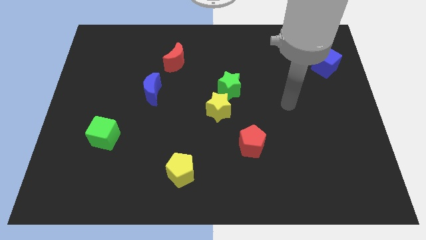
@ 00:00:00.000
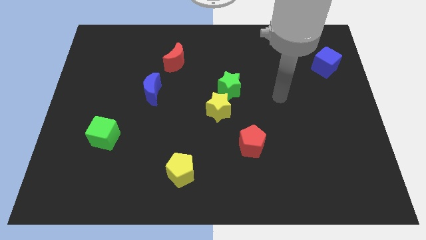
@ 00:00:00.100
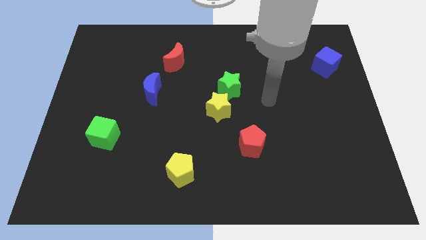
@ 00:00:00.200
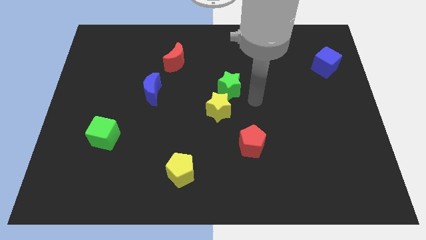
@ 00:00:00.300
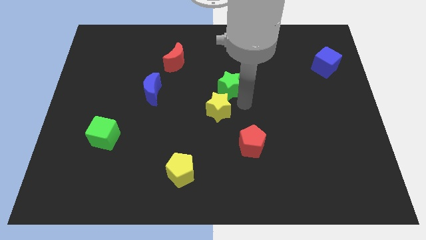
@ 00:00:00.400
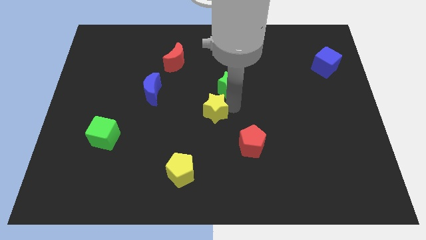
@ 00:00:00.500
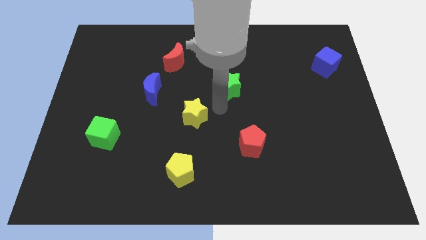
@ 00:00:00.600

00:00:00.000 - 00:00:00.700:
separate the green star from the yellow star

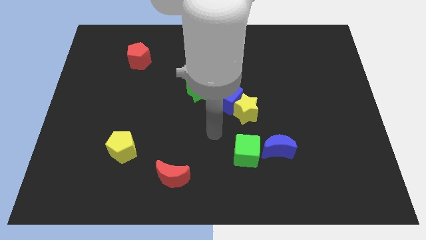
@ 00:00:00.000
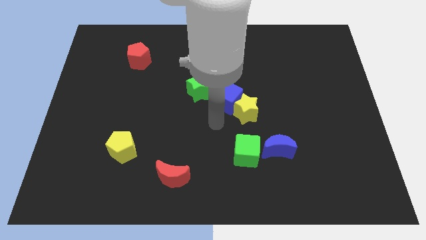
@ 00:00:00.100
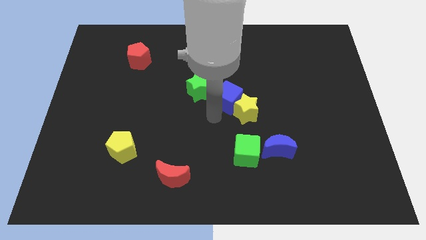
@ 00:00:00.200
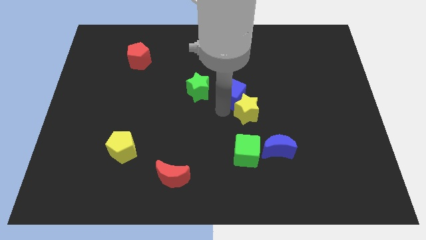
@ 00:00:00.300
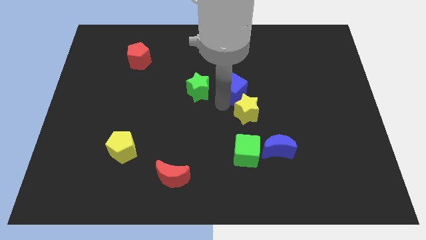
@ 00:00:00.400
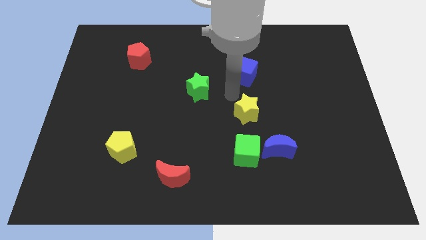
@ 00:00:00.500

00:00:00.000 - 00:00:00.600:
pull the yellow star apart from the blue cube

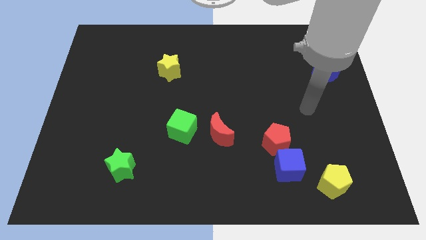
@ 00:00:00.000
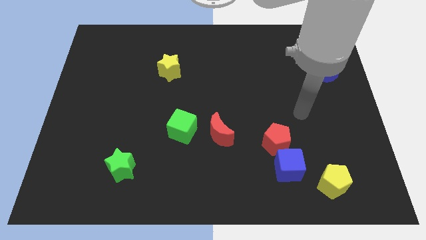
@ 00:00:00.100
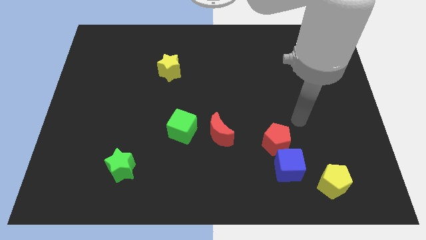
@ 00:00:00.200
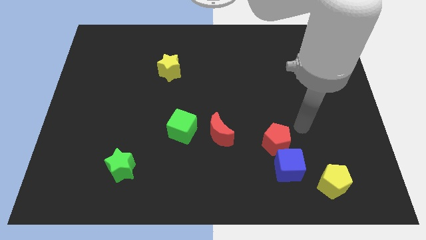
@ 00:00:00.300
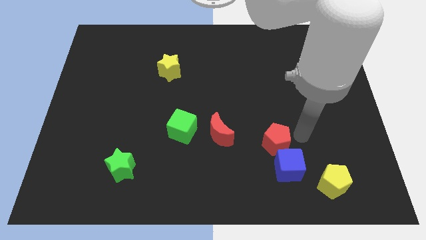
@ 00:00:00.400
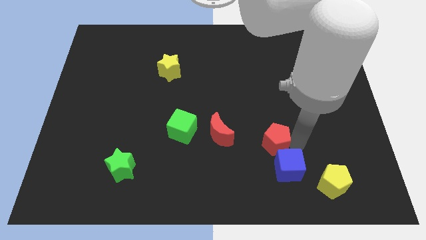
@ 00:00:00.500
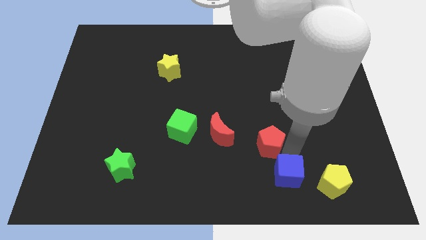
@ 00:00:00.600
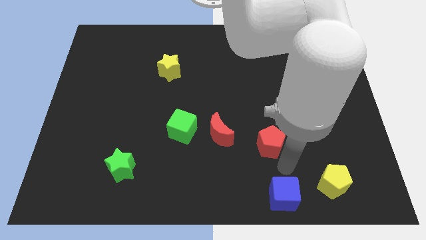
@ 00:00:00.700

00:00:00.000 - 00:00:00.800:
separate the red pentagon from the blue cube

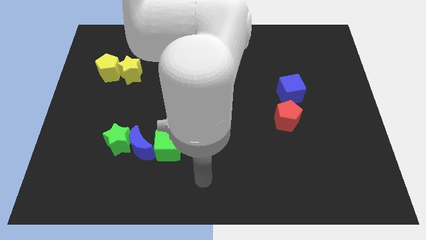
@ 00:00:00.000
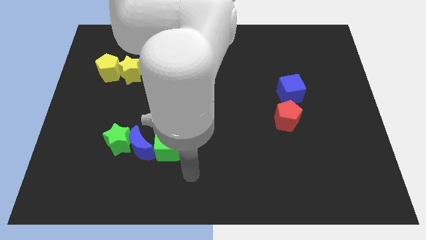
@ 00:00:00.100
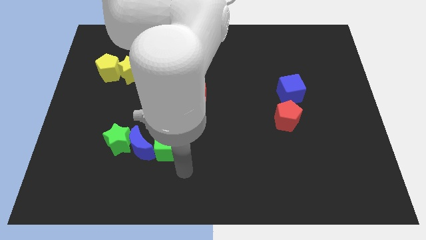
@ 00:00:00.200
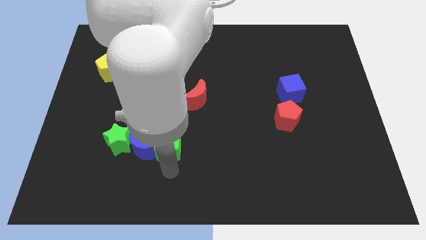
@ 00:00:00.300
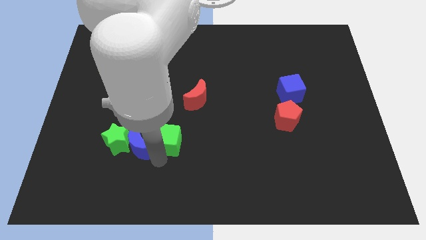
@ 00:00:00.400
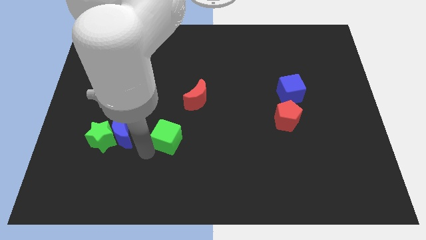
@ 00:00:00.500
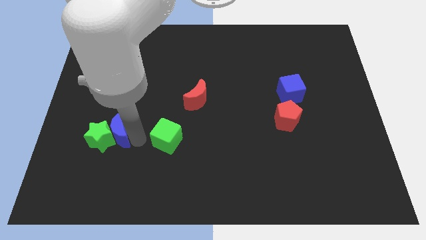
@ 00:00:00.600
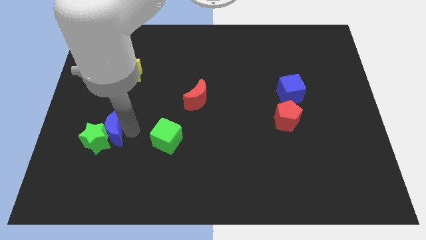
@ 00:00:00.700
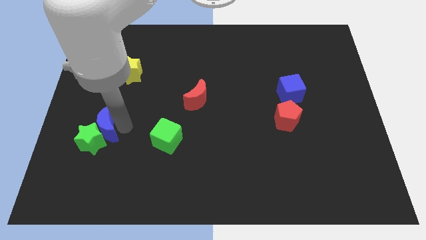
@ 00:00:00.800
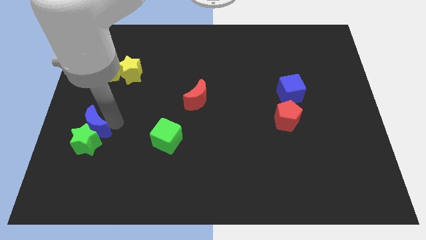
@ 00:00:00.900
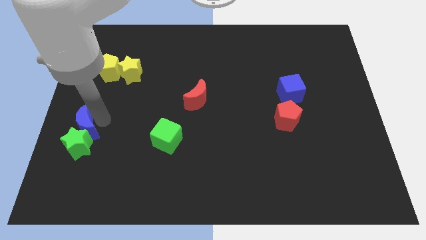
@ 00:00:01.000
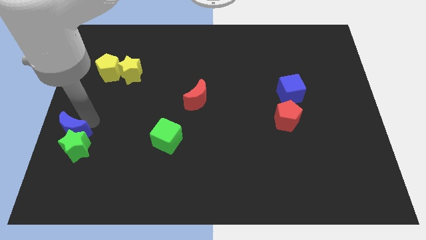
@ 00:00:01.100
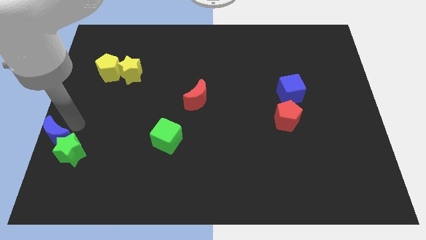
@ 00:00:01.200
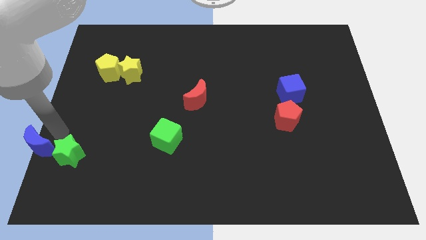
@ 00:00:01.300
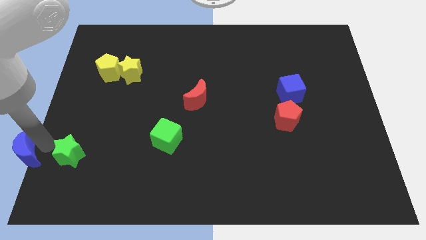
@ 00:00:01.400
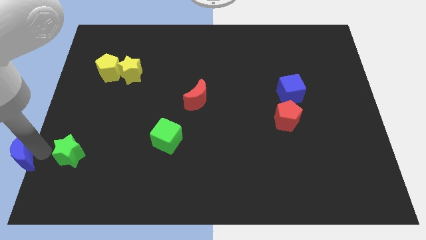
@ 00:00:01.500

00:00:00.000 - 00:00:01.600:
separate the green star from the blue moon

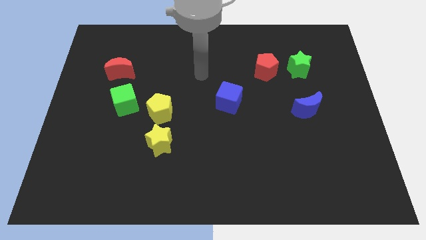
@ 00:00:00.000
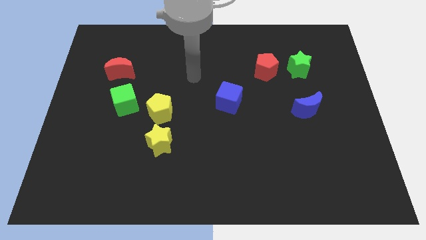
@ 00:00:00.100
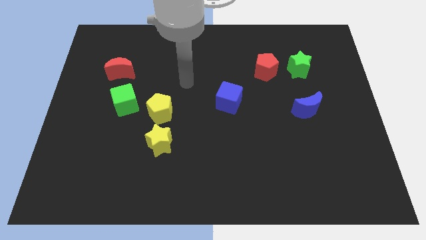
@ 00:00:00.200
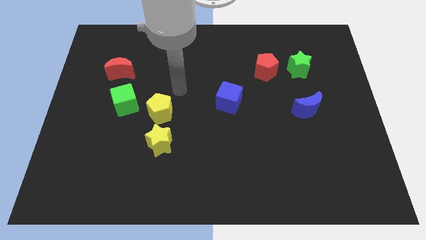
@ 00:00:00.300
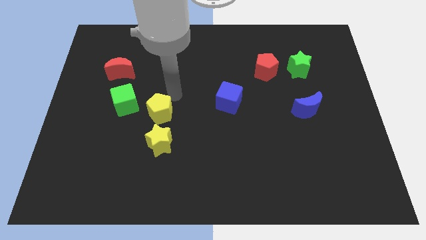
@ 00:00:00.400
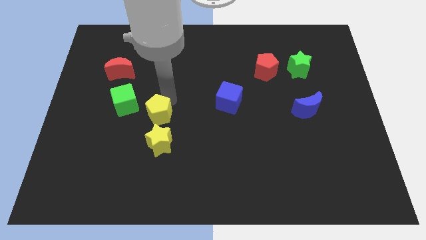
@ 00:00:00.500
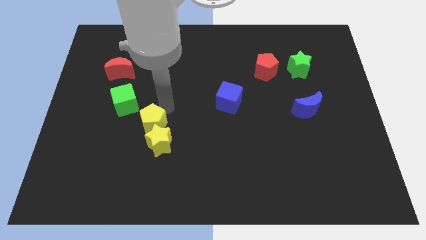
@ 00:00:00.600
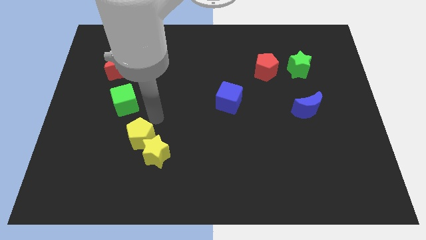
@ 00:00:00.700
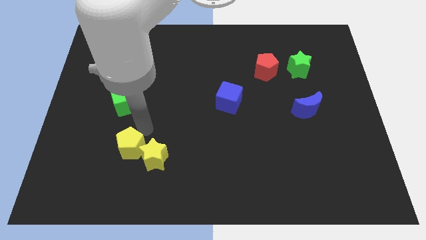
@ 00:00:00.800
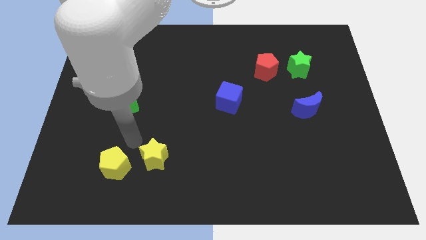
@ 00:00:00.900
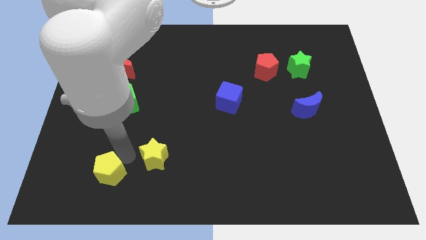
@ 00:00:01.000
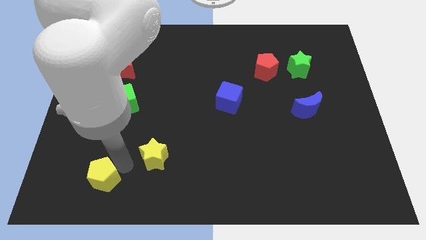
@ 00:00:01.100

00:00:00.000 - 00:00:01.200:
move the yellow star away from the yellow pentagon

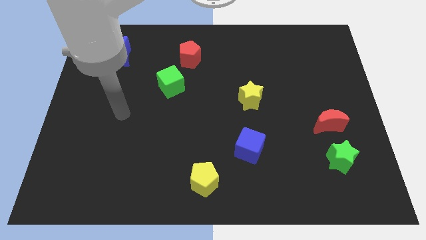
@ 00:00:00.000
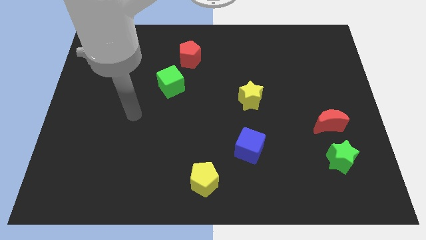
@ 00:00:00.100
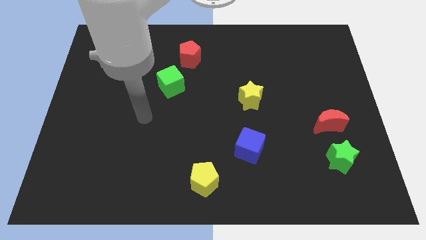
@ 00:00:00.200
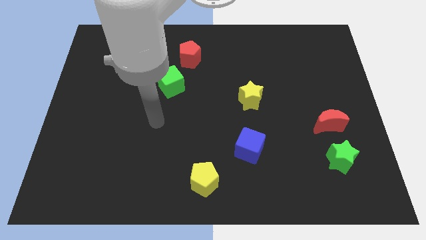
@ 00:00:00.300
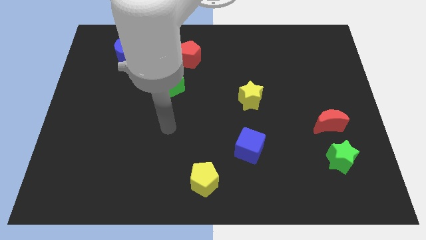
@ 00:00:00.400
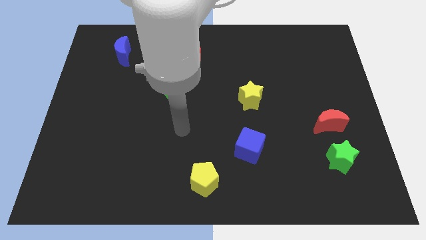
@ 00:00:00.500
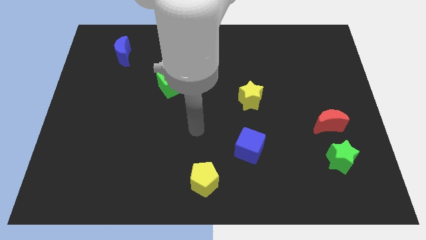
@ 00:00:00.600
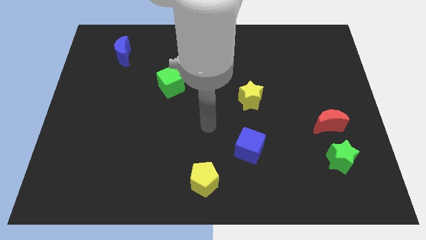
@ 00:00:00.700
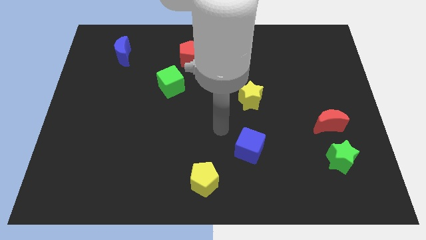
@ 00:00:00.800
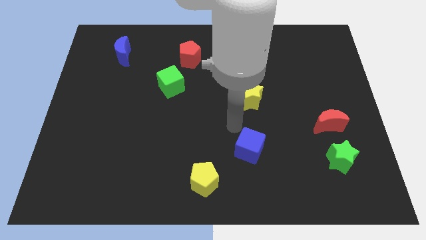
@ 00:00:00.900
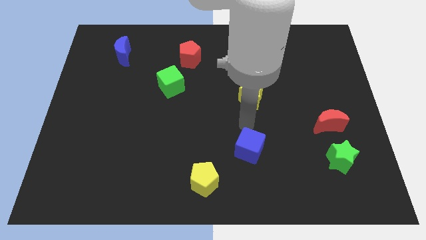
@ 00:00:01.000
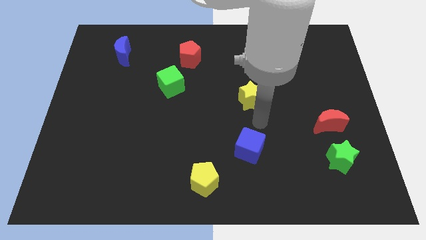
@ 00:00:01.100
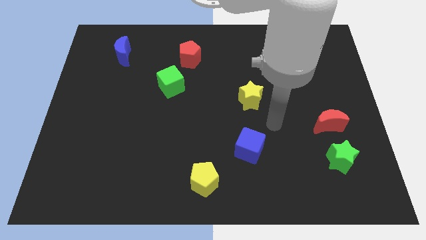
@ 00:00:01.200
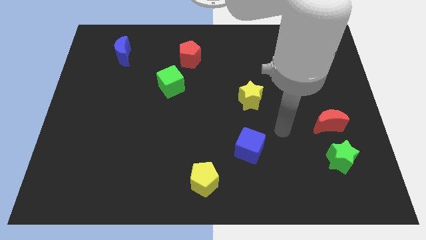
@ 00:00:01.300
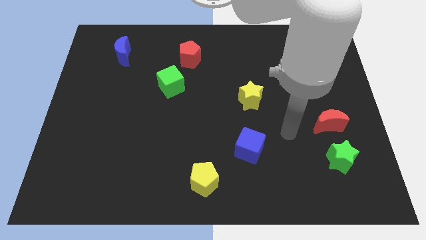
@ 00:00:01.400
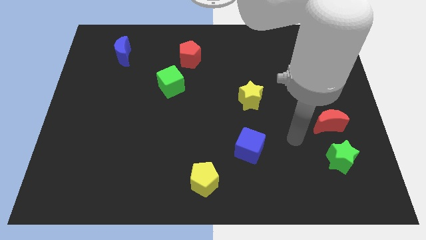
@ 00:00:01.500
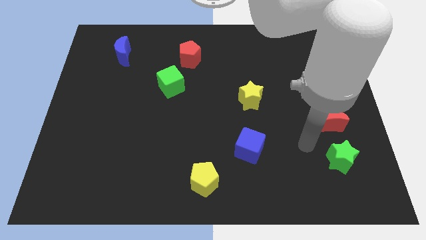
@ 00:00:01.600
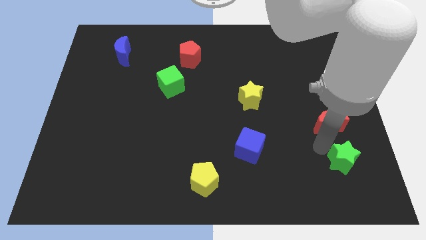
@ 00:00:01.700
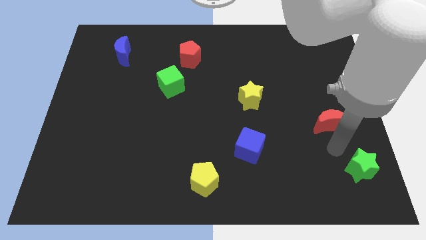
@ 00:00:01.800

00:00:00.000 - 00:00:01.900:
separate the red moon from the green star

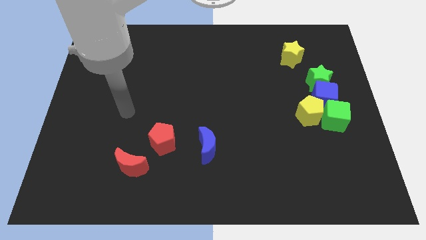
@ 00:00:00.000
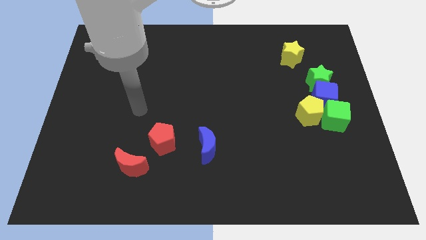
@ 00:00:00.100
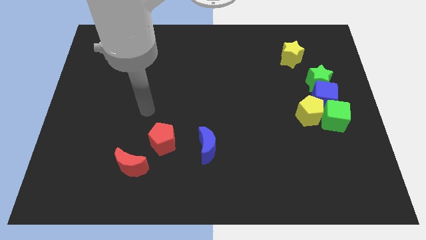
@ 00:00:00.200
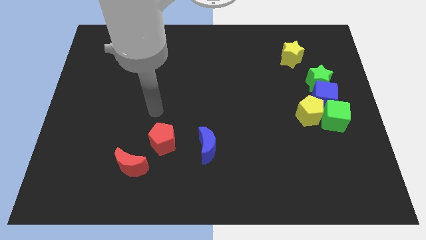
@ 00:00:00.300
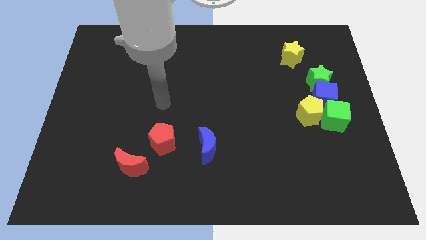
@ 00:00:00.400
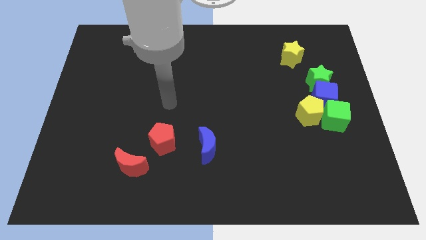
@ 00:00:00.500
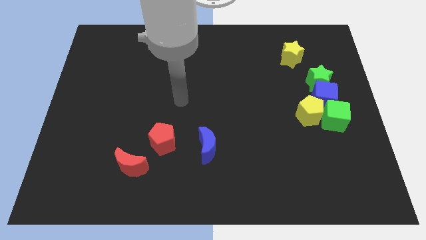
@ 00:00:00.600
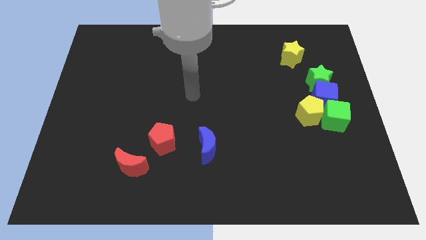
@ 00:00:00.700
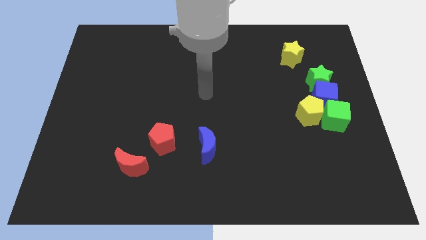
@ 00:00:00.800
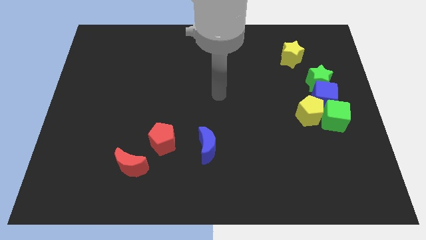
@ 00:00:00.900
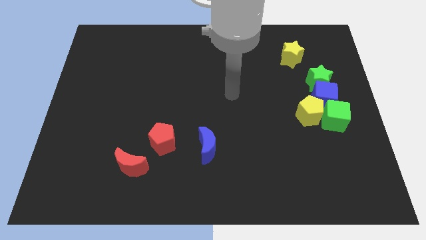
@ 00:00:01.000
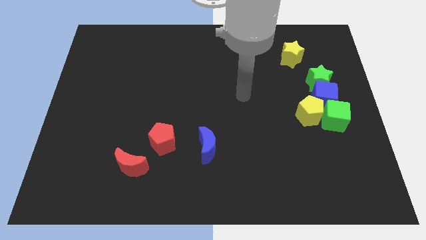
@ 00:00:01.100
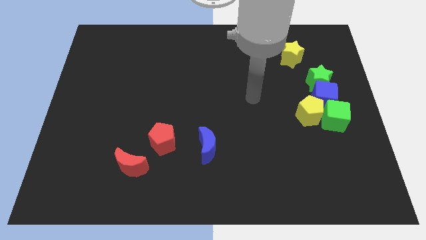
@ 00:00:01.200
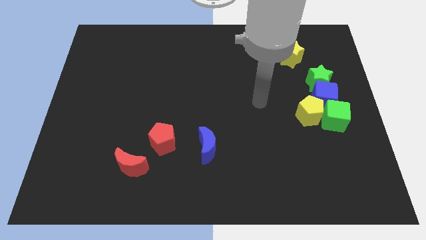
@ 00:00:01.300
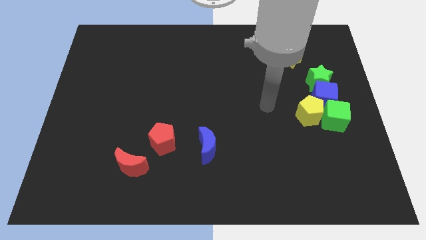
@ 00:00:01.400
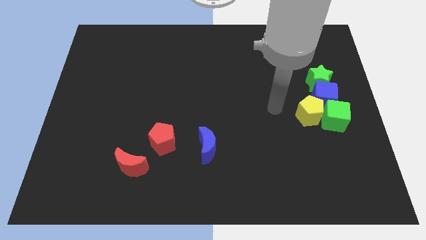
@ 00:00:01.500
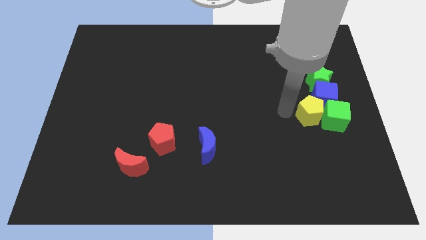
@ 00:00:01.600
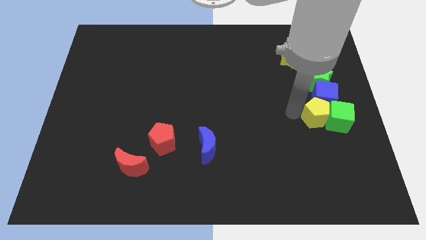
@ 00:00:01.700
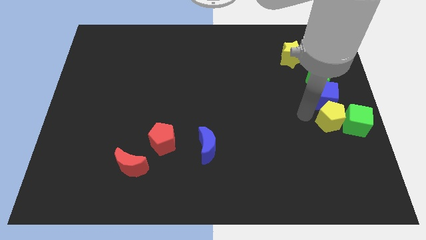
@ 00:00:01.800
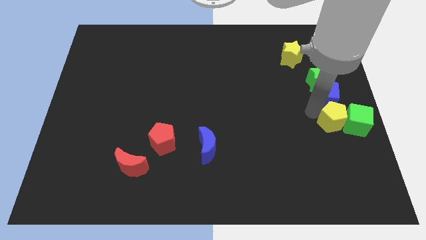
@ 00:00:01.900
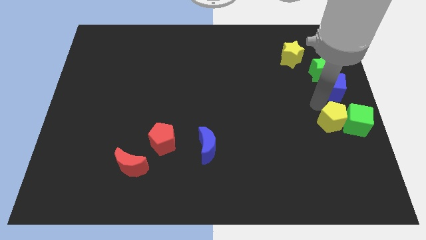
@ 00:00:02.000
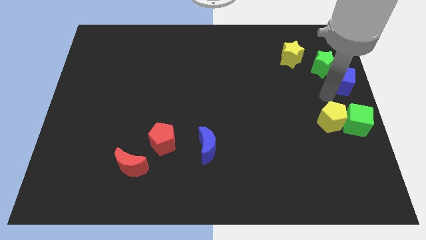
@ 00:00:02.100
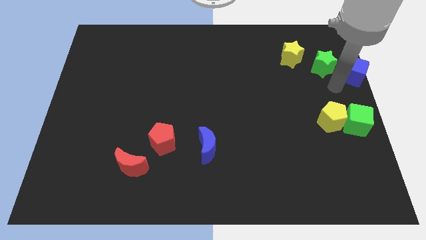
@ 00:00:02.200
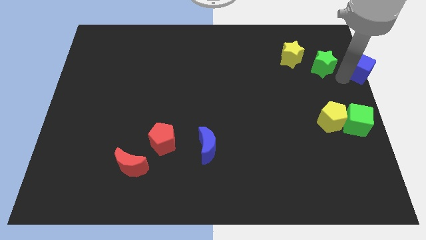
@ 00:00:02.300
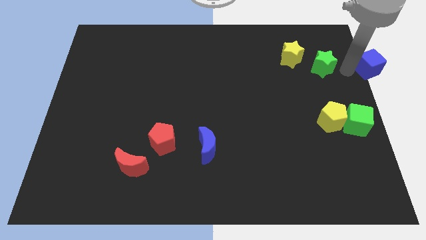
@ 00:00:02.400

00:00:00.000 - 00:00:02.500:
move the green star away from the blue cube

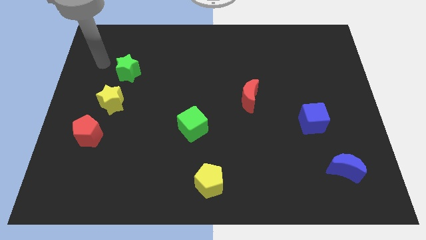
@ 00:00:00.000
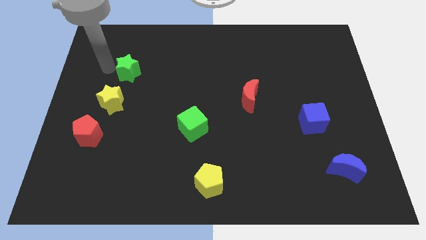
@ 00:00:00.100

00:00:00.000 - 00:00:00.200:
pull the green star apart from the yellow star
